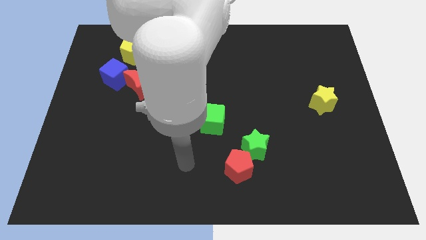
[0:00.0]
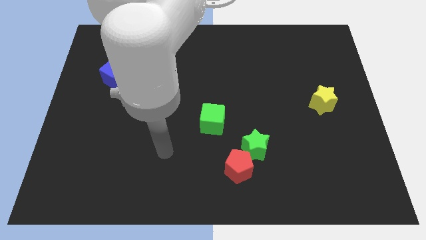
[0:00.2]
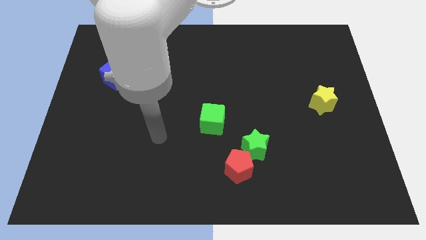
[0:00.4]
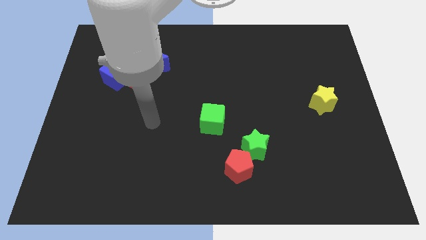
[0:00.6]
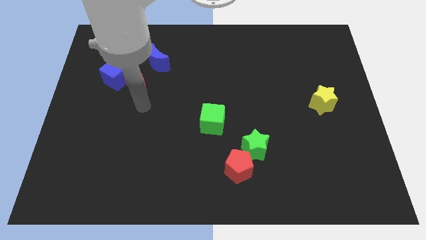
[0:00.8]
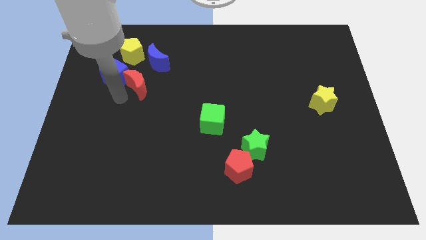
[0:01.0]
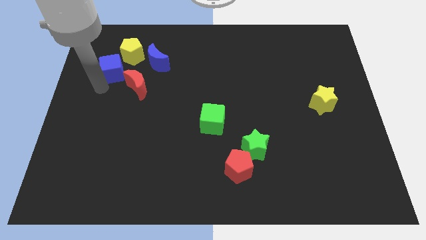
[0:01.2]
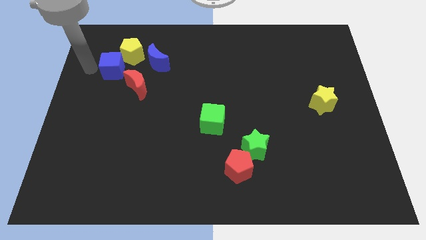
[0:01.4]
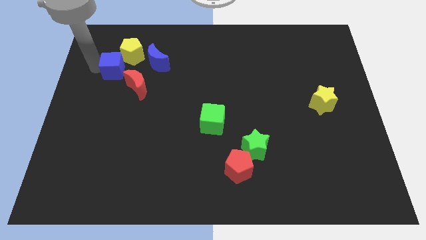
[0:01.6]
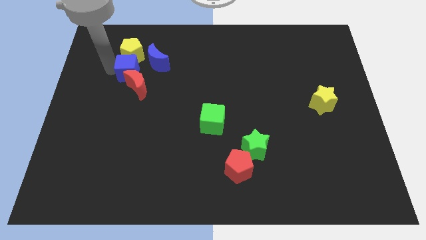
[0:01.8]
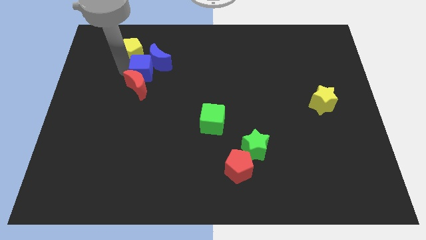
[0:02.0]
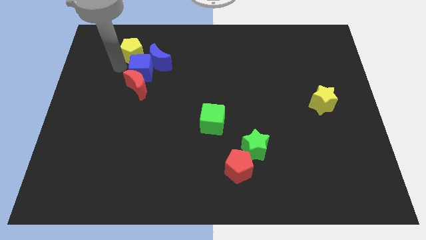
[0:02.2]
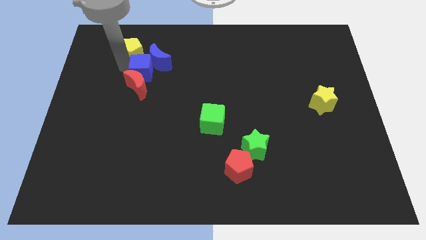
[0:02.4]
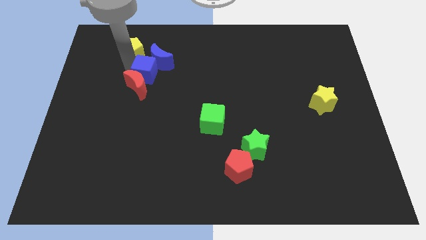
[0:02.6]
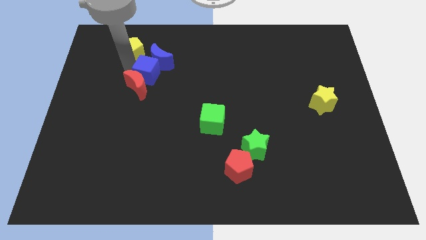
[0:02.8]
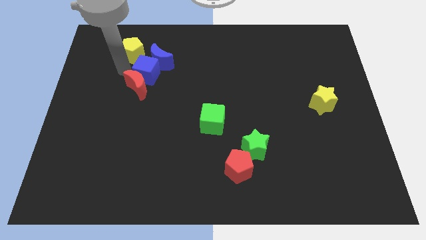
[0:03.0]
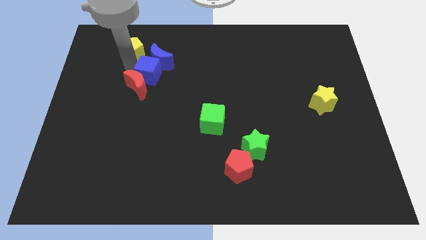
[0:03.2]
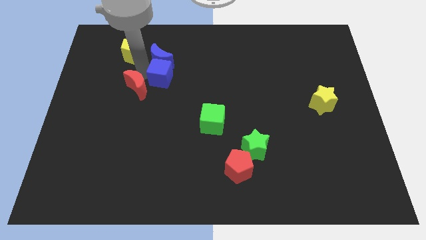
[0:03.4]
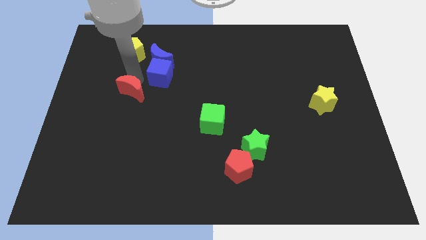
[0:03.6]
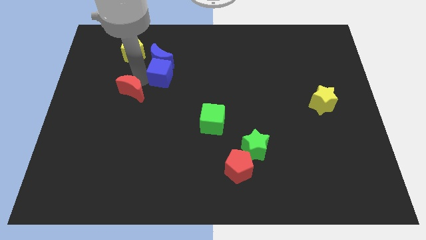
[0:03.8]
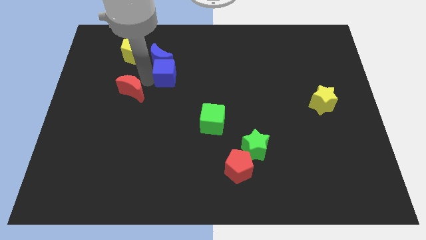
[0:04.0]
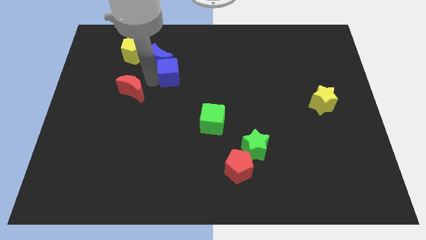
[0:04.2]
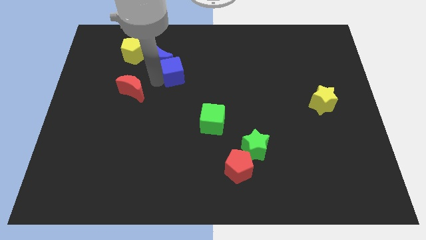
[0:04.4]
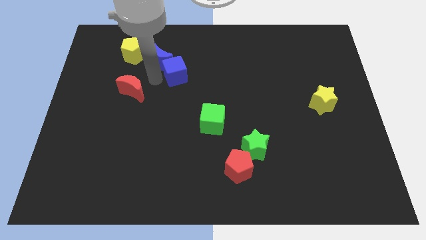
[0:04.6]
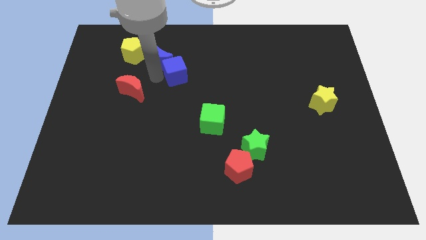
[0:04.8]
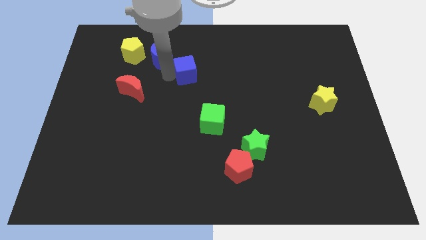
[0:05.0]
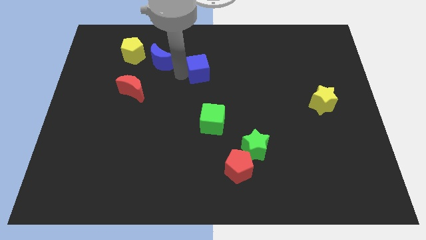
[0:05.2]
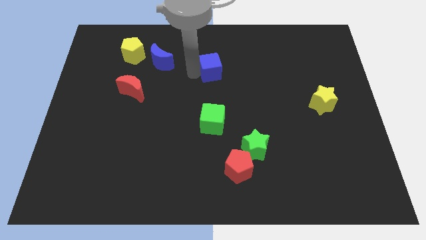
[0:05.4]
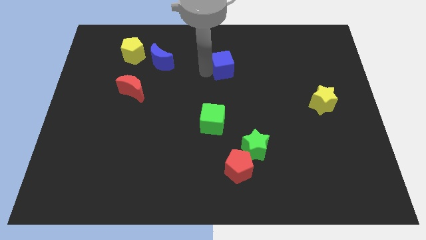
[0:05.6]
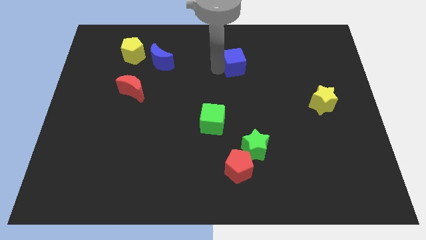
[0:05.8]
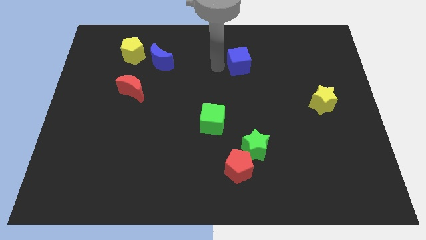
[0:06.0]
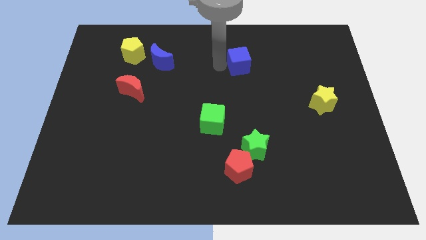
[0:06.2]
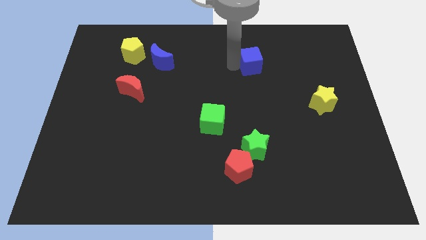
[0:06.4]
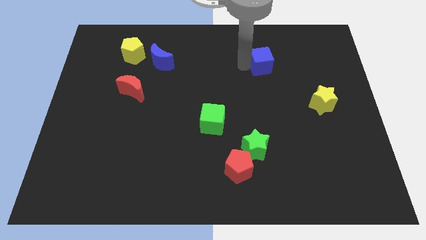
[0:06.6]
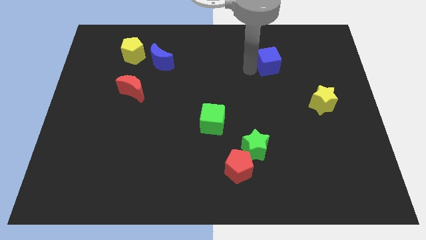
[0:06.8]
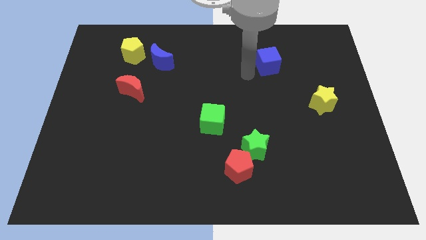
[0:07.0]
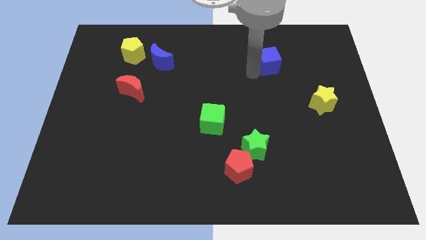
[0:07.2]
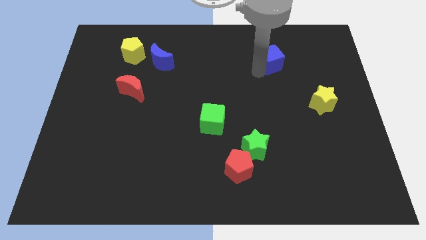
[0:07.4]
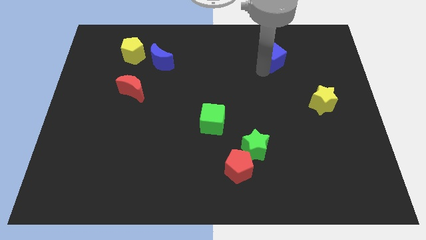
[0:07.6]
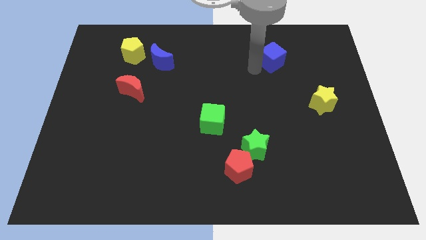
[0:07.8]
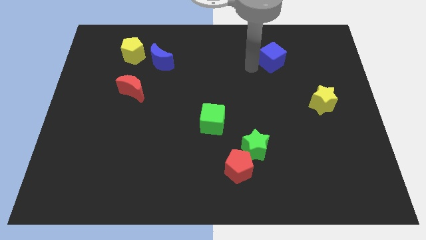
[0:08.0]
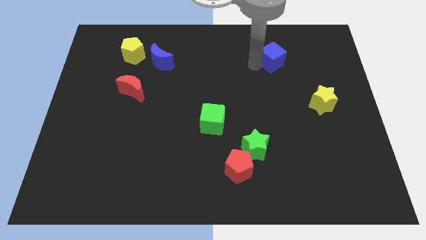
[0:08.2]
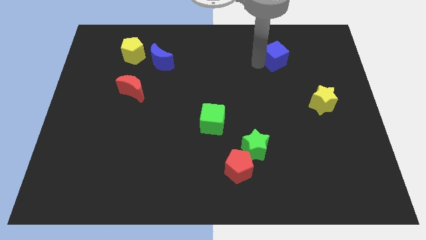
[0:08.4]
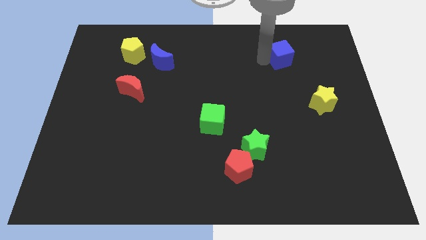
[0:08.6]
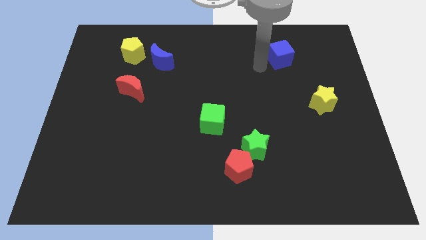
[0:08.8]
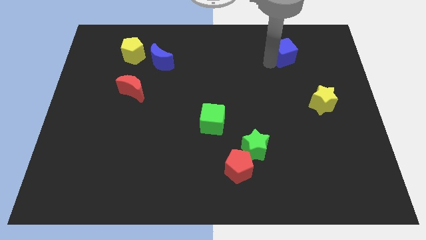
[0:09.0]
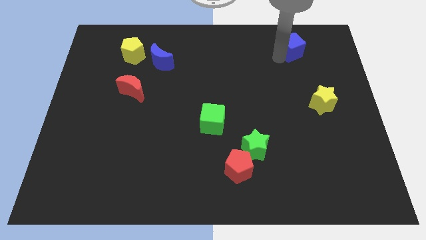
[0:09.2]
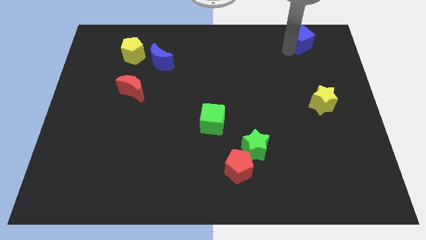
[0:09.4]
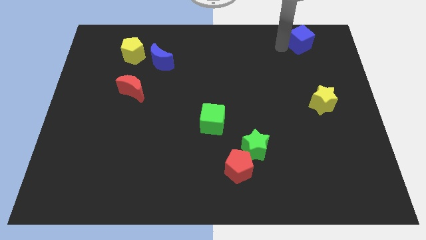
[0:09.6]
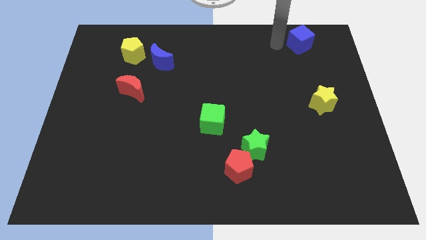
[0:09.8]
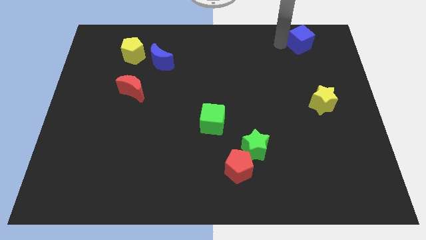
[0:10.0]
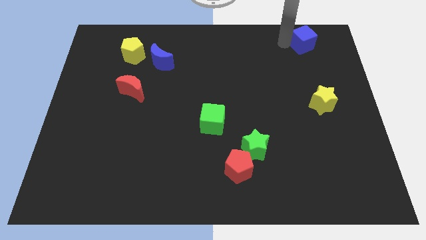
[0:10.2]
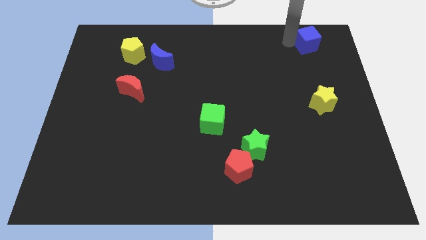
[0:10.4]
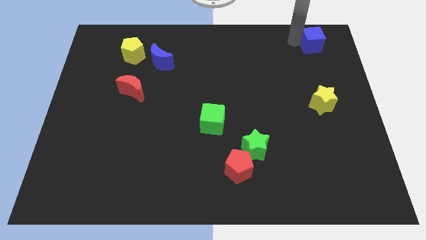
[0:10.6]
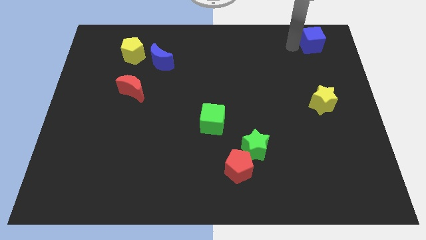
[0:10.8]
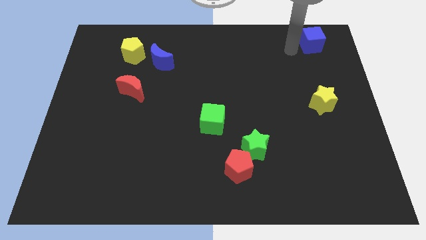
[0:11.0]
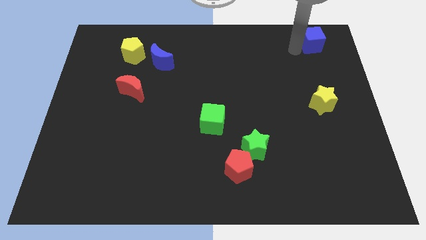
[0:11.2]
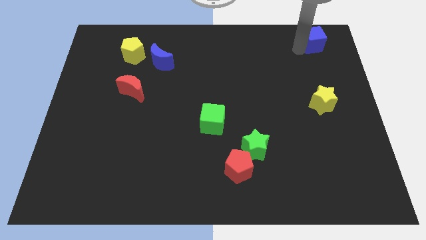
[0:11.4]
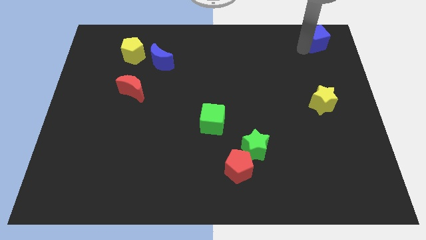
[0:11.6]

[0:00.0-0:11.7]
push the blue cube to the upper right corner
